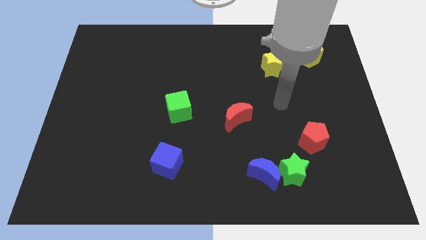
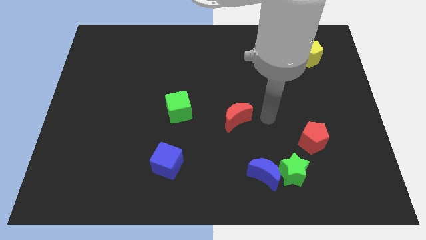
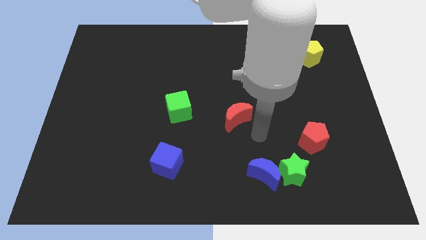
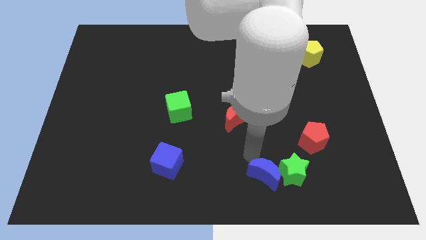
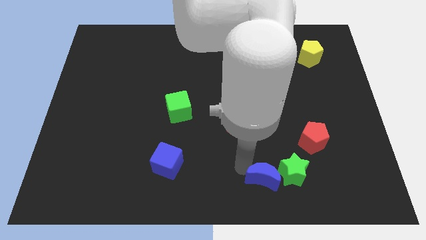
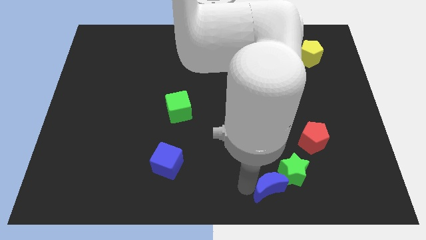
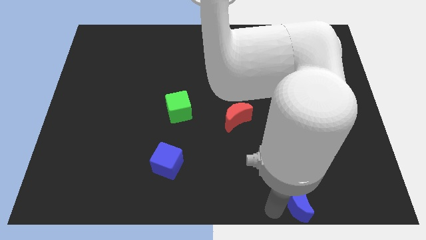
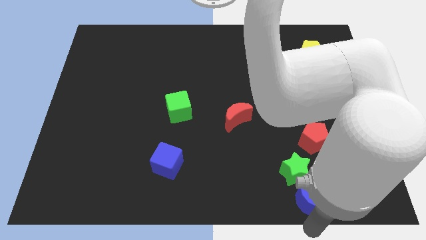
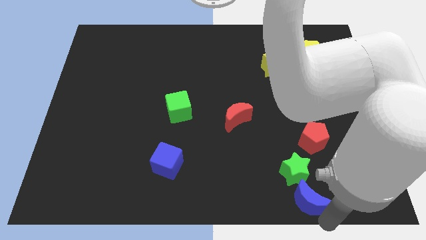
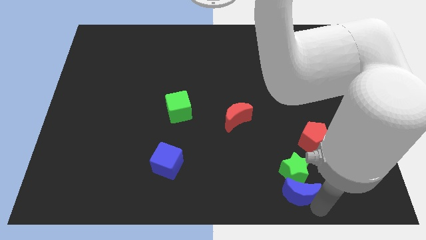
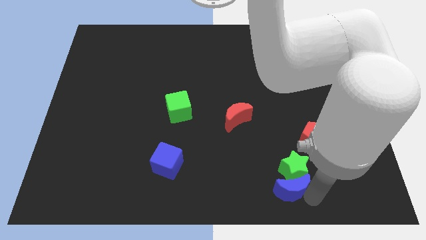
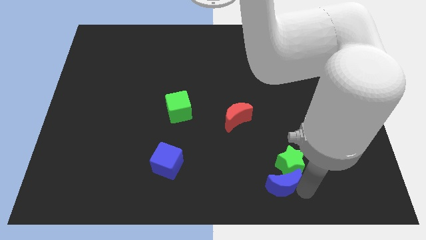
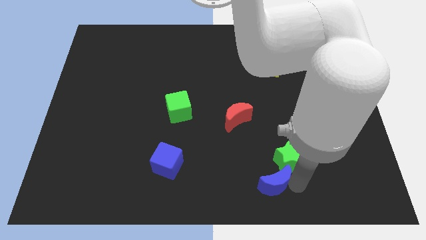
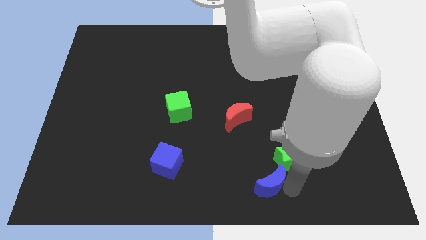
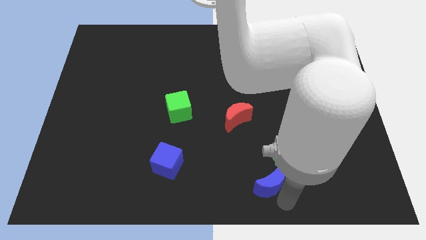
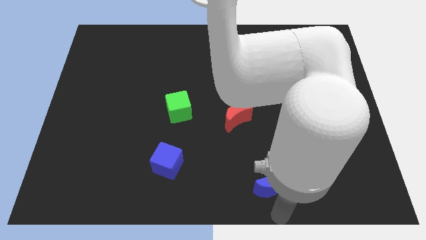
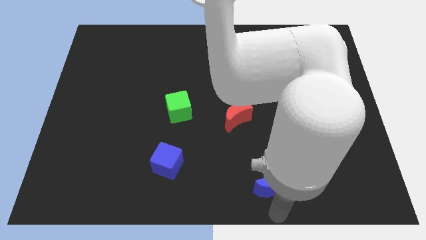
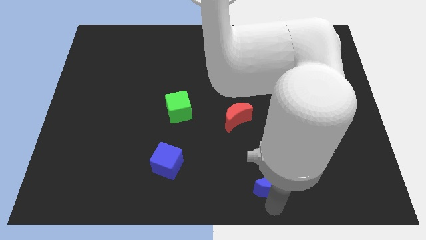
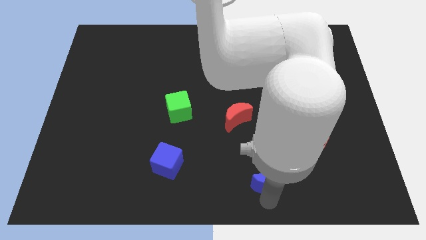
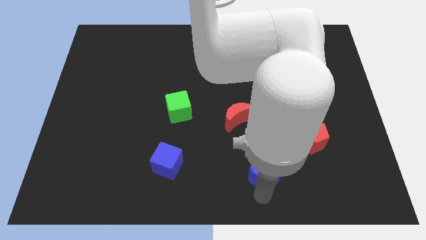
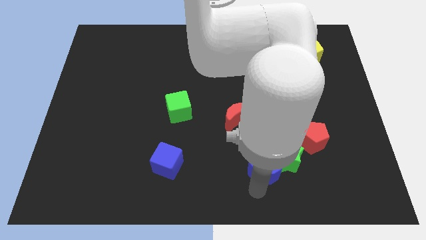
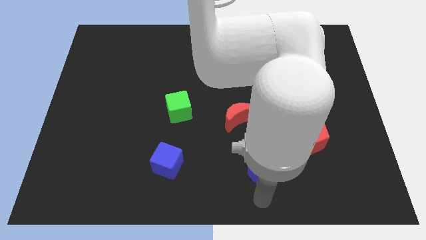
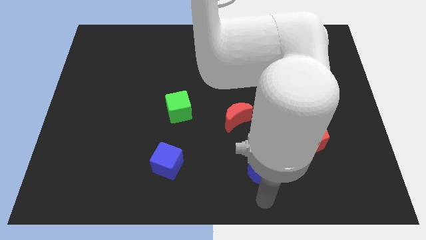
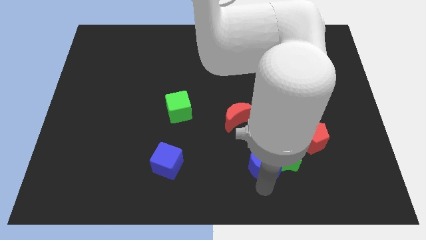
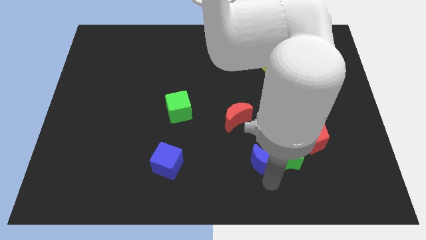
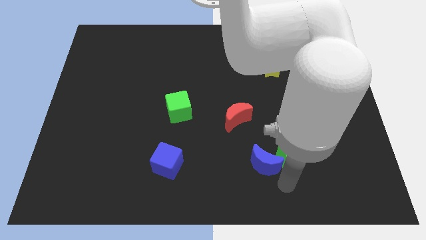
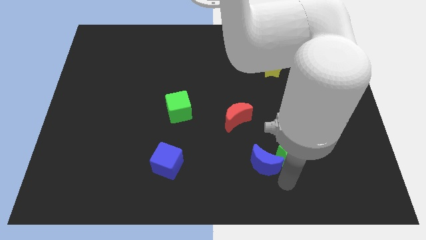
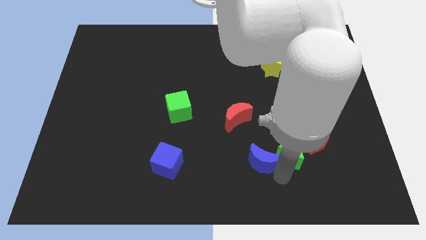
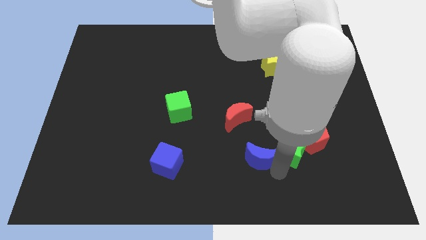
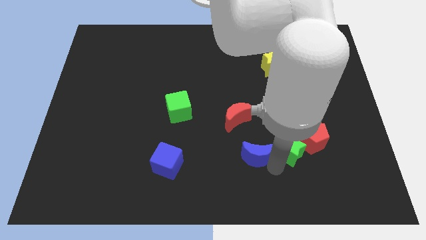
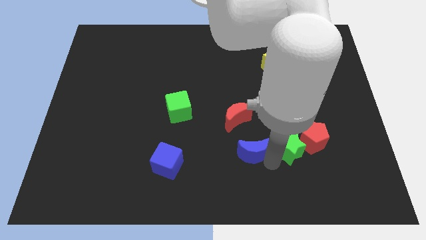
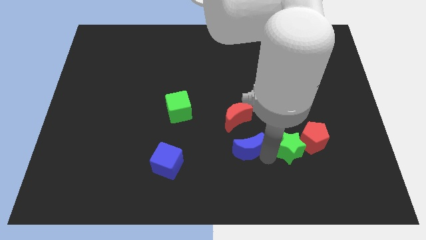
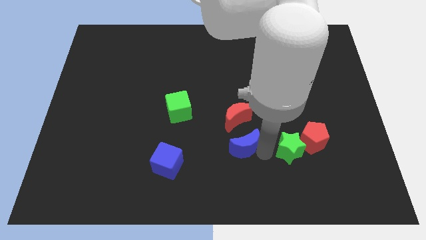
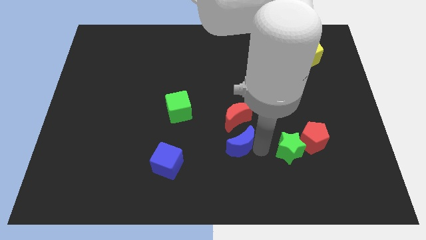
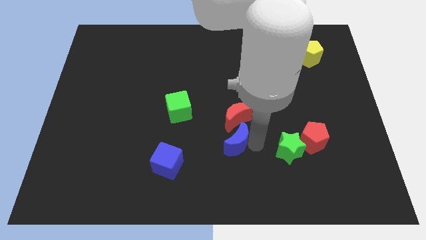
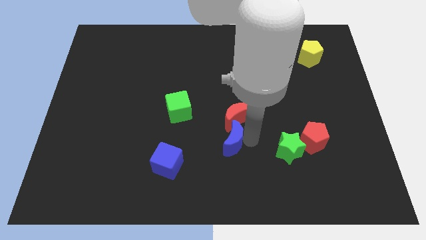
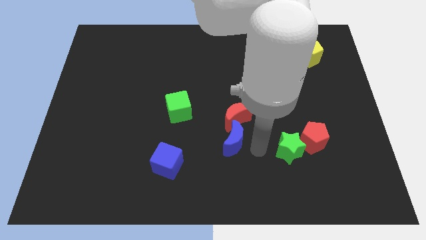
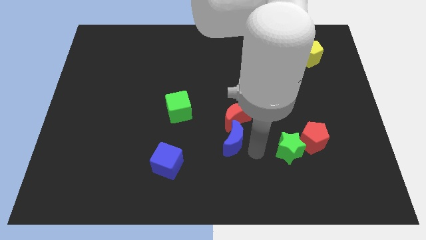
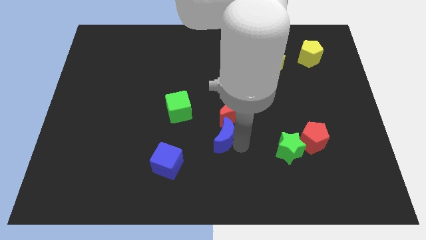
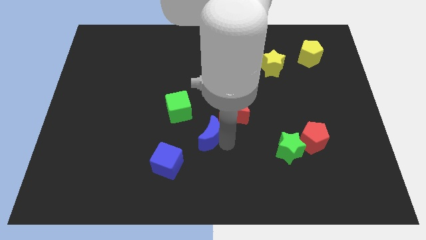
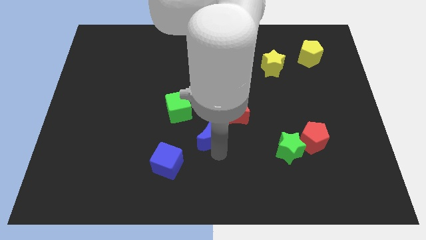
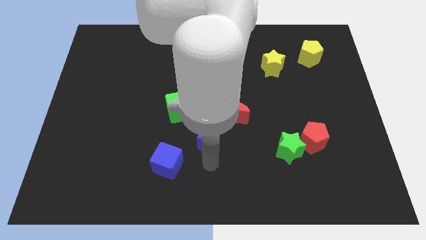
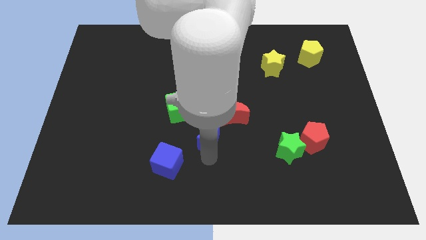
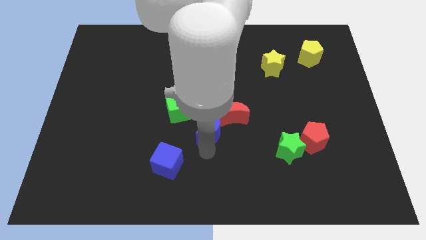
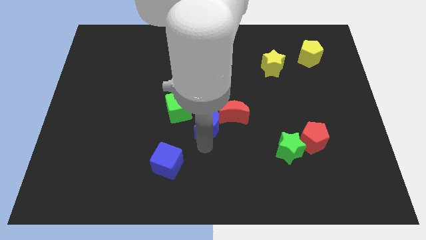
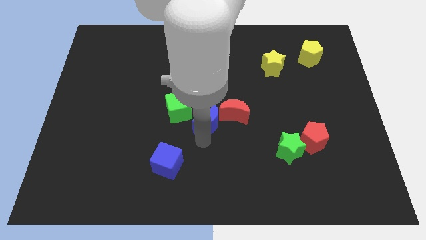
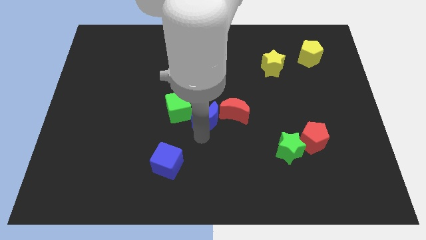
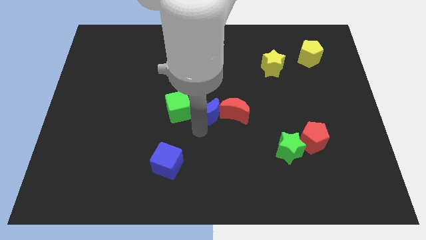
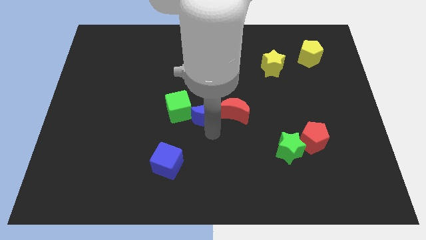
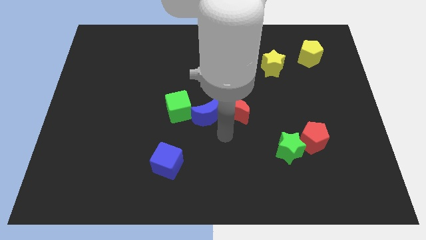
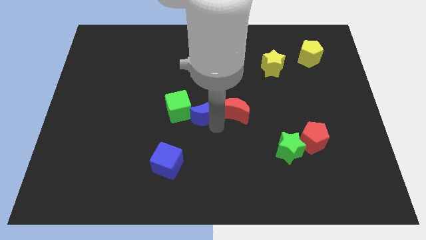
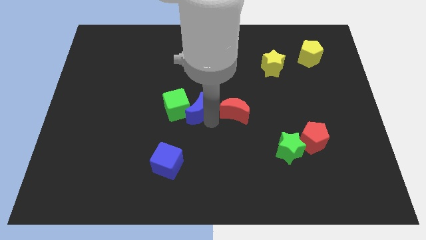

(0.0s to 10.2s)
move the blue moon upwards and to the left

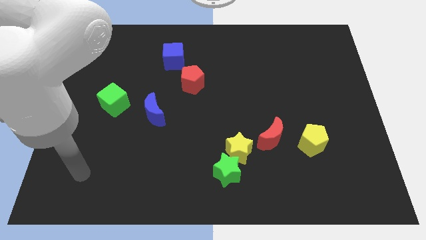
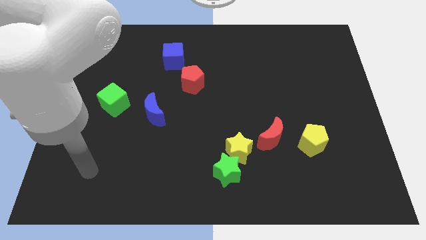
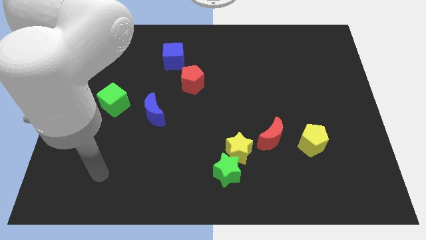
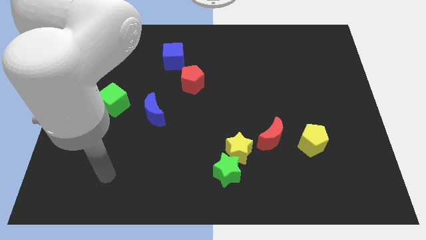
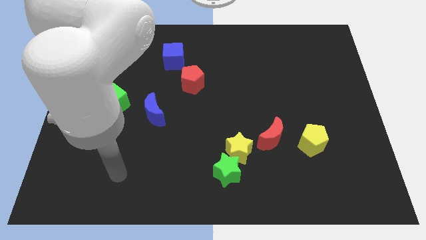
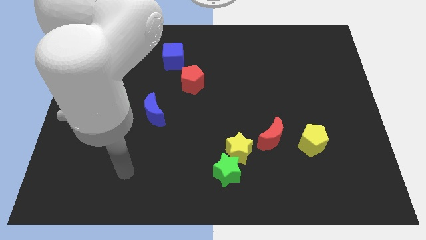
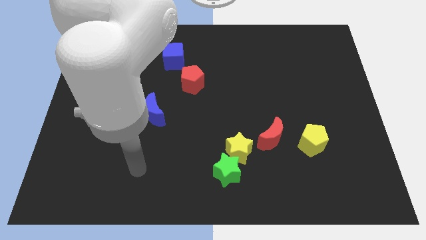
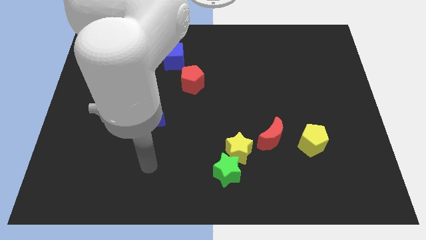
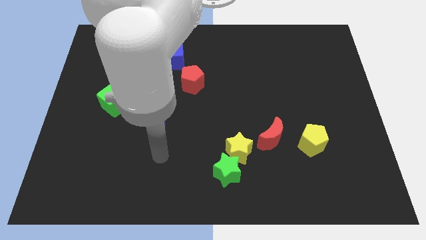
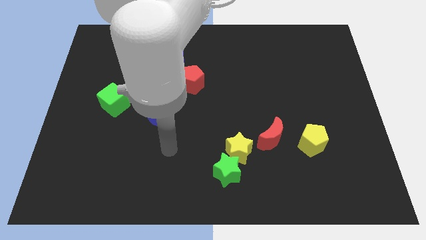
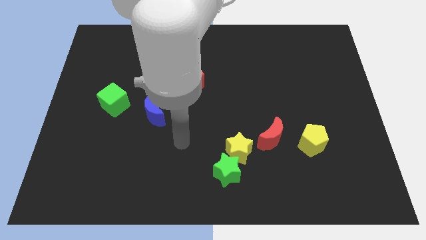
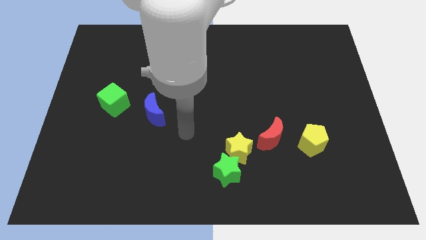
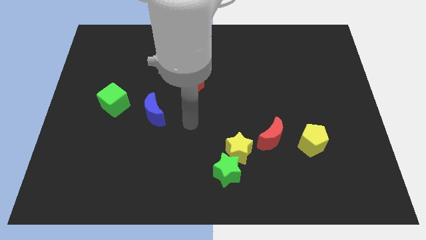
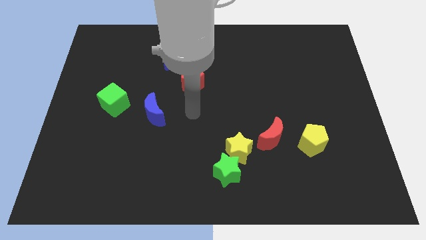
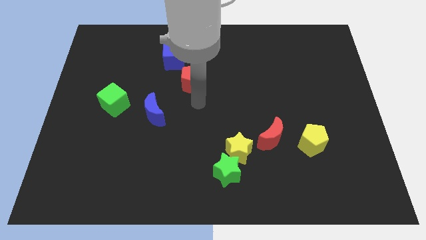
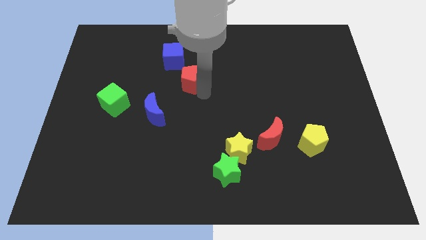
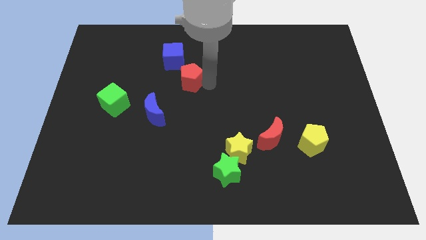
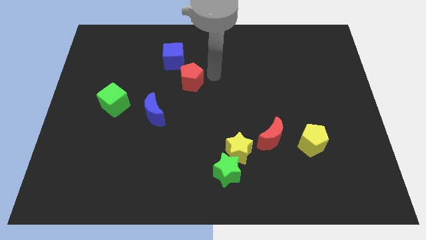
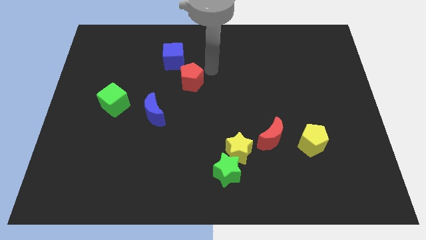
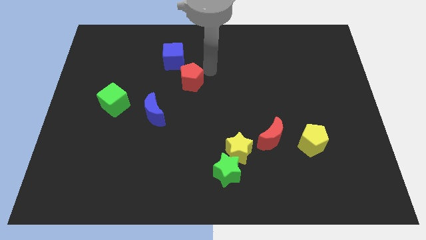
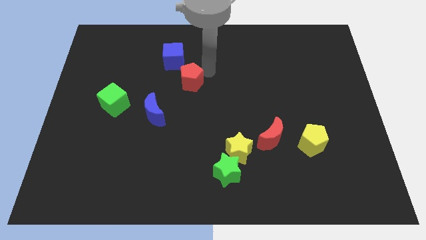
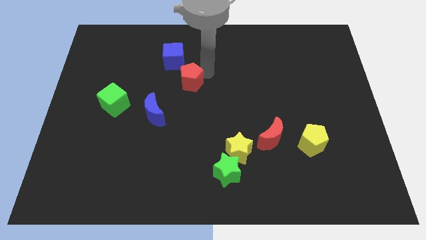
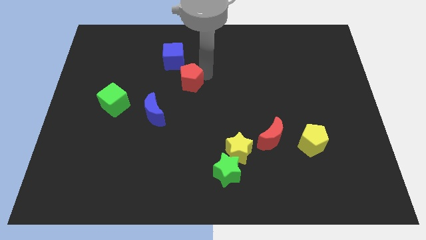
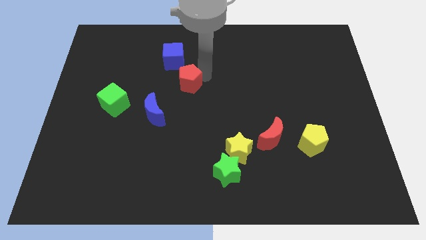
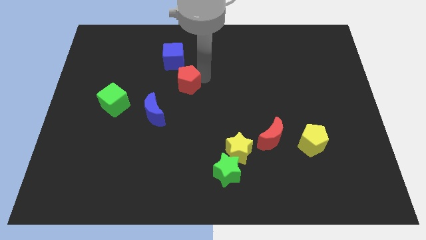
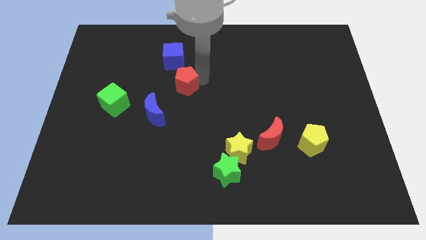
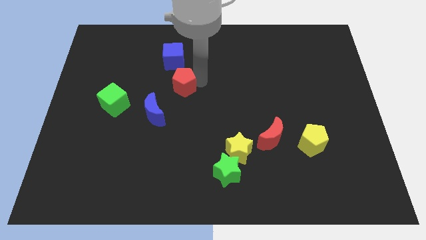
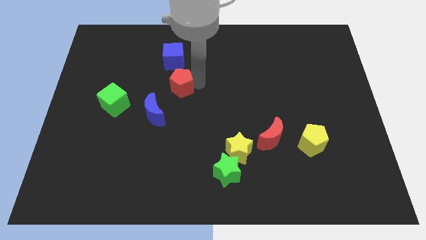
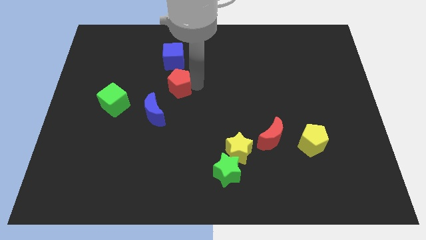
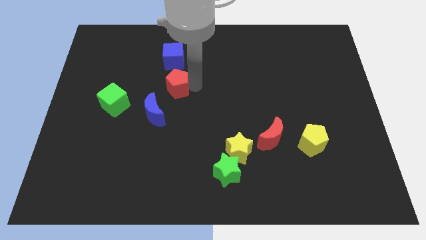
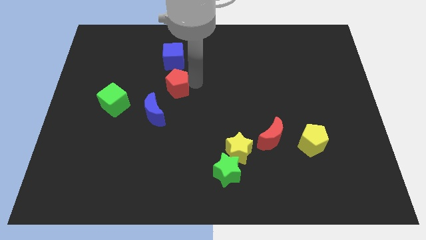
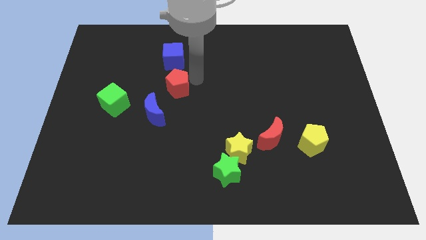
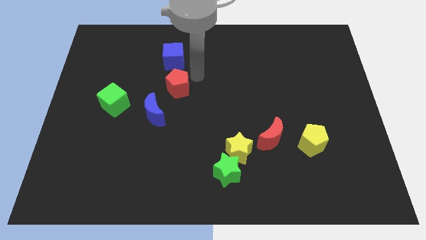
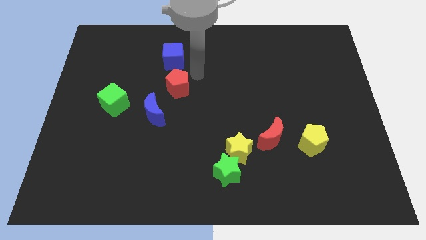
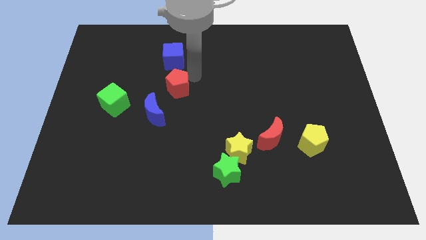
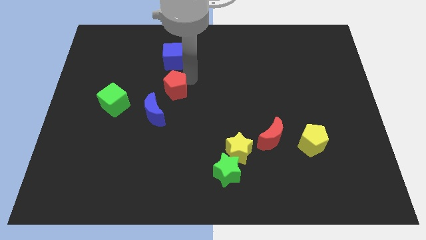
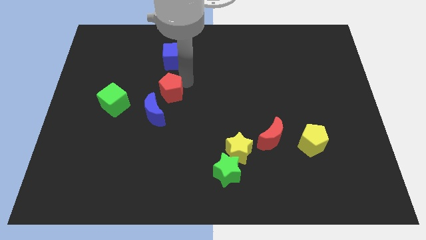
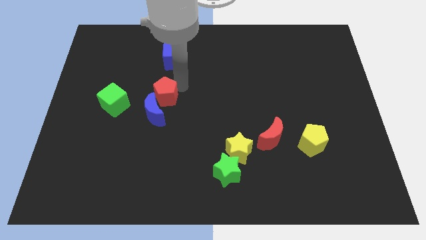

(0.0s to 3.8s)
slightly slide the red pentagon down and left diagonally
